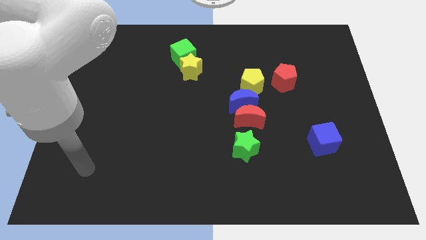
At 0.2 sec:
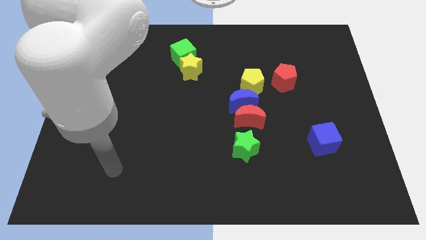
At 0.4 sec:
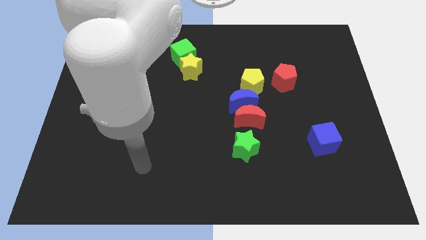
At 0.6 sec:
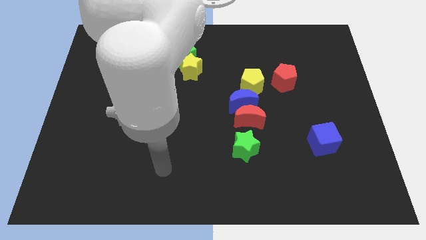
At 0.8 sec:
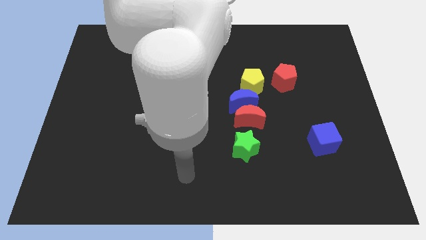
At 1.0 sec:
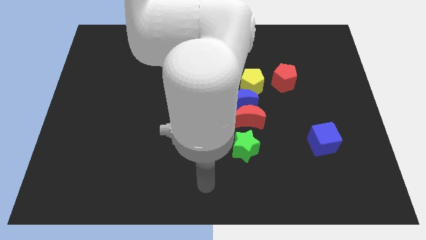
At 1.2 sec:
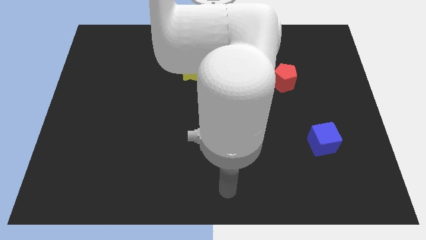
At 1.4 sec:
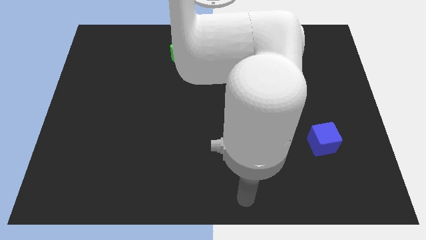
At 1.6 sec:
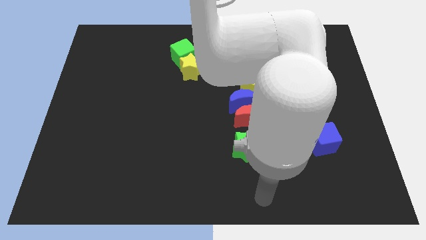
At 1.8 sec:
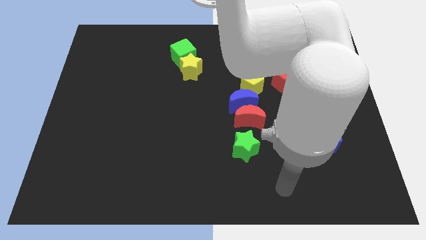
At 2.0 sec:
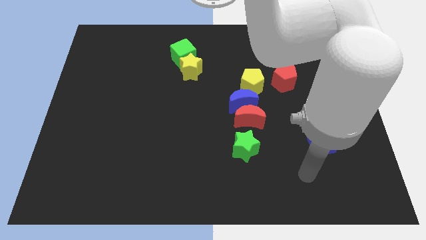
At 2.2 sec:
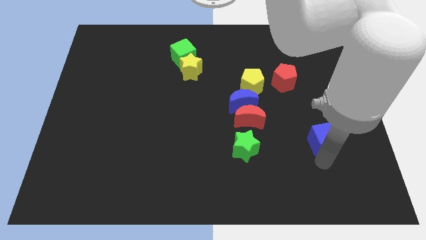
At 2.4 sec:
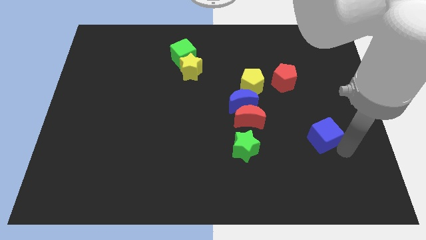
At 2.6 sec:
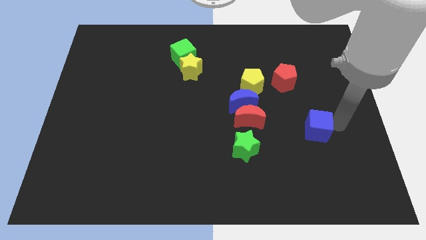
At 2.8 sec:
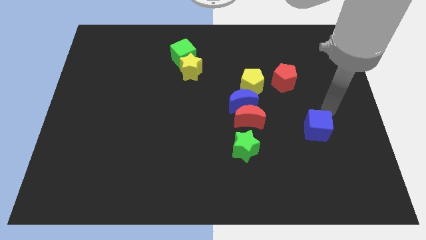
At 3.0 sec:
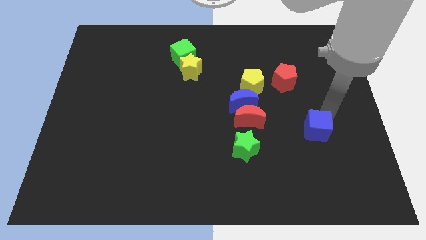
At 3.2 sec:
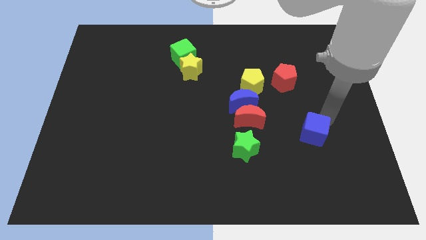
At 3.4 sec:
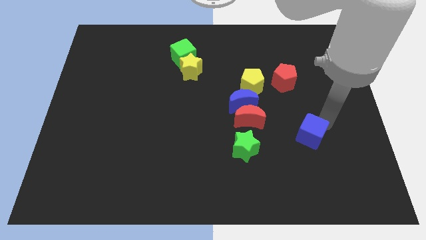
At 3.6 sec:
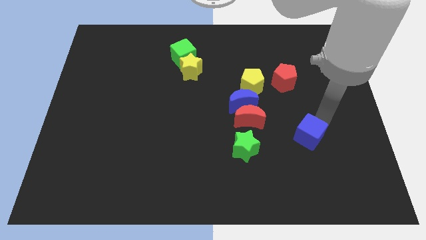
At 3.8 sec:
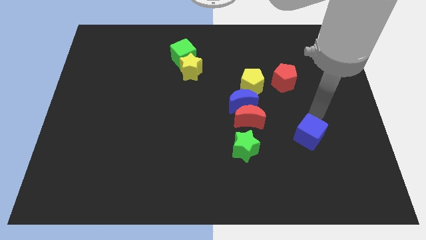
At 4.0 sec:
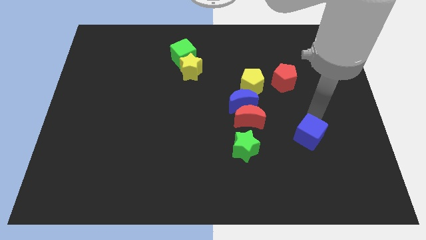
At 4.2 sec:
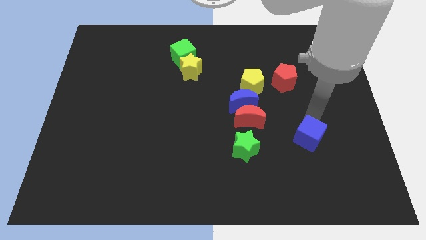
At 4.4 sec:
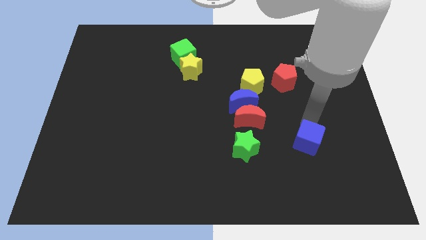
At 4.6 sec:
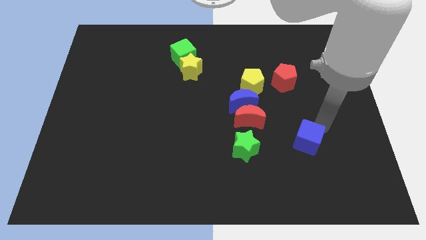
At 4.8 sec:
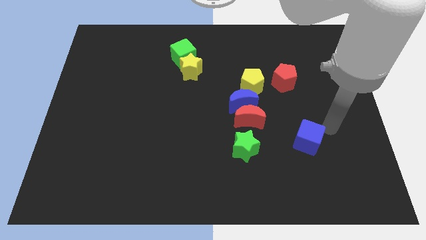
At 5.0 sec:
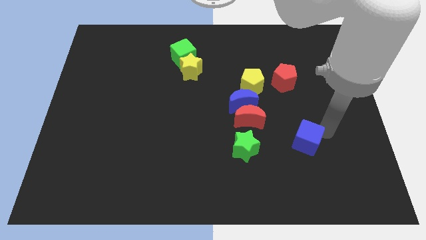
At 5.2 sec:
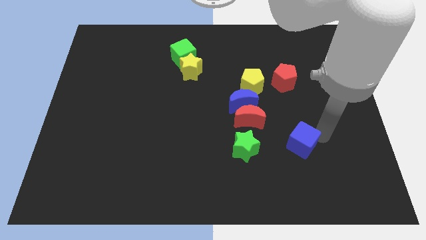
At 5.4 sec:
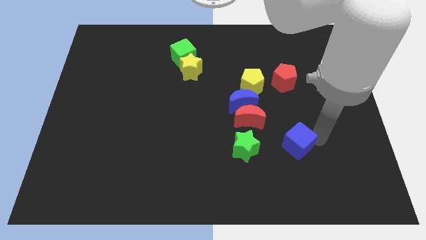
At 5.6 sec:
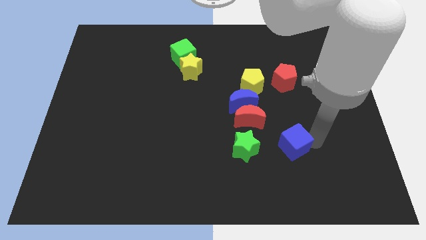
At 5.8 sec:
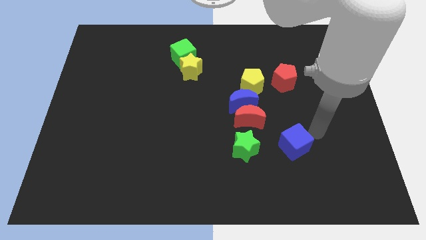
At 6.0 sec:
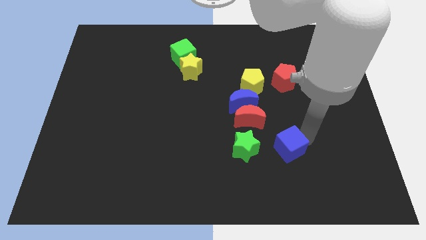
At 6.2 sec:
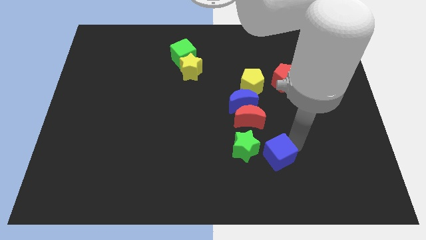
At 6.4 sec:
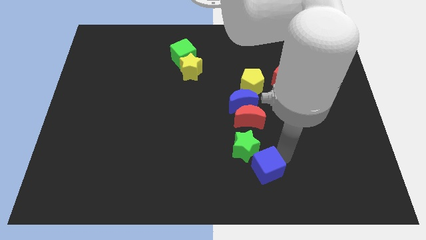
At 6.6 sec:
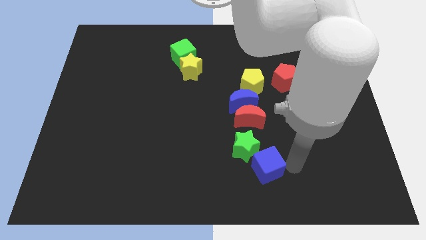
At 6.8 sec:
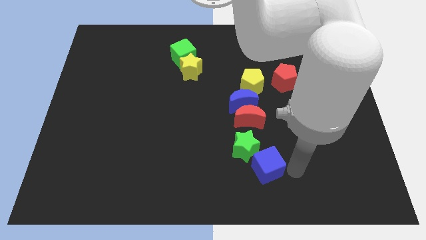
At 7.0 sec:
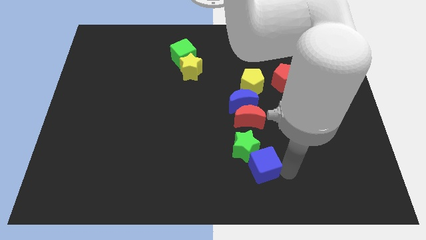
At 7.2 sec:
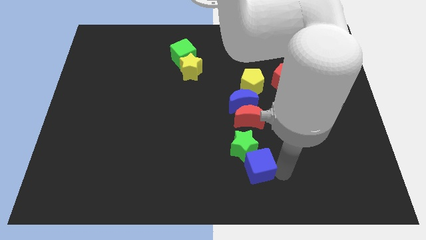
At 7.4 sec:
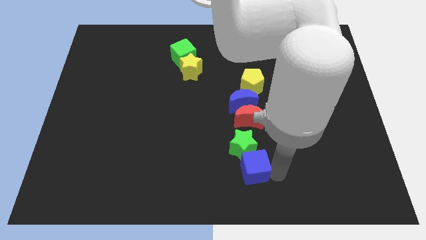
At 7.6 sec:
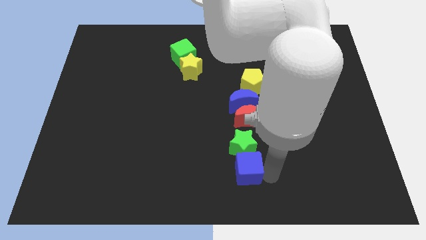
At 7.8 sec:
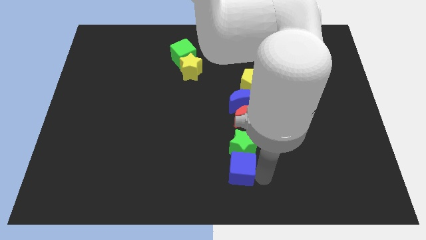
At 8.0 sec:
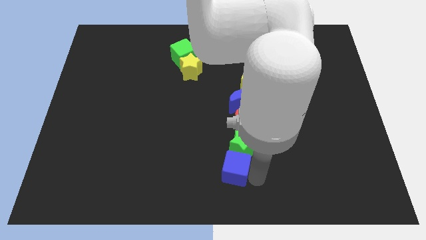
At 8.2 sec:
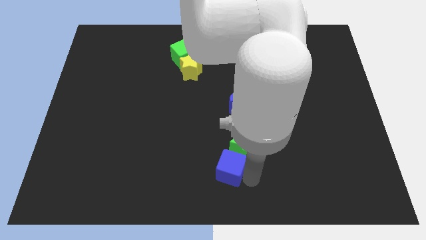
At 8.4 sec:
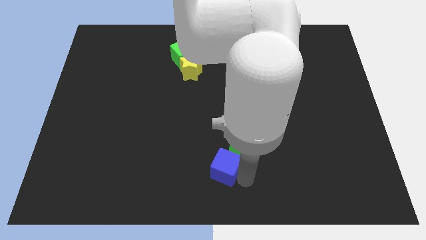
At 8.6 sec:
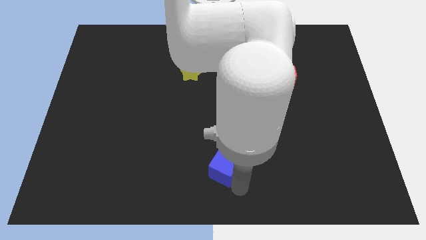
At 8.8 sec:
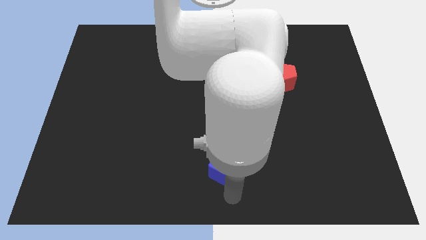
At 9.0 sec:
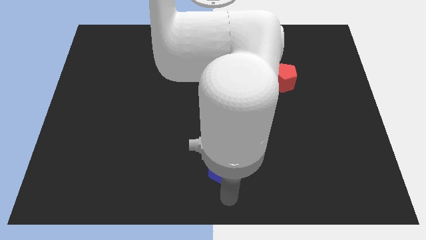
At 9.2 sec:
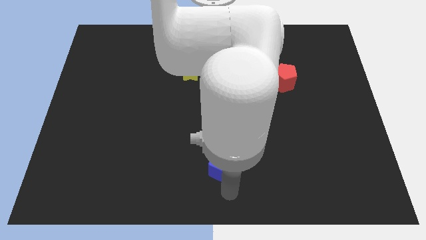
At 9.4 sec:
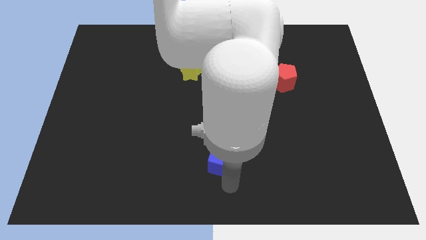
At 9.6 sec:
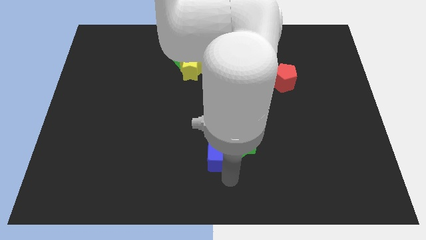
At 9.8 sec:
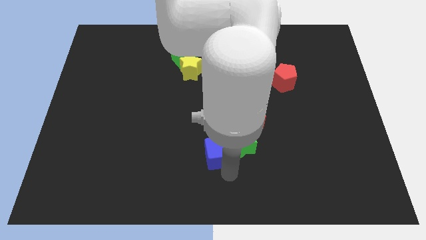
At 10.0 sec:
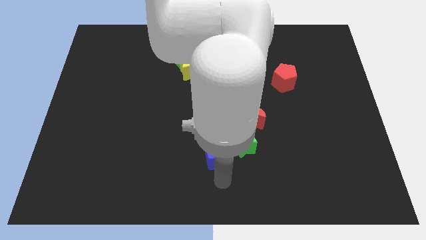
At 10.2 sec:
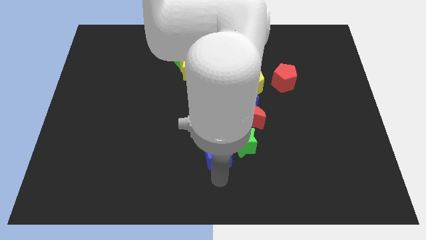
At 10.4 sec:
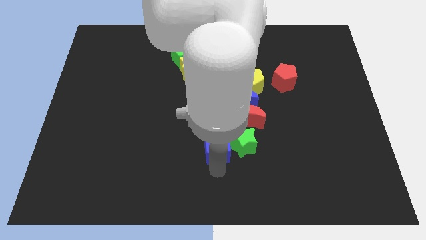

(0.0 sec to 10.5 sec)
put the blue cube to the top left side of the green star

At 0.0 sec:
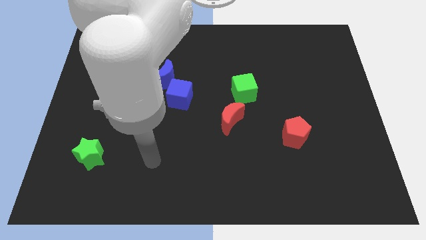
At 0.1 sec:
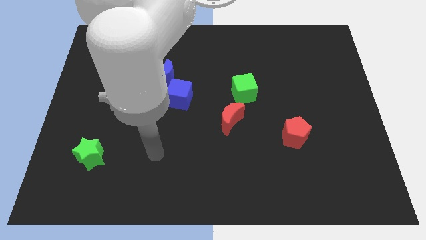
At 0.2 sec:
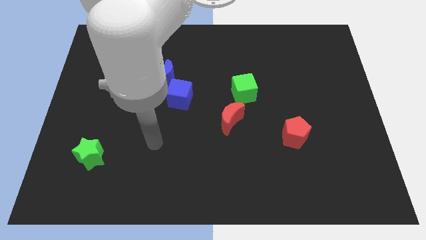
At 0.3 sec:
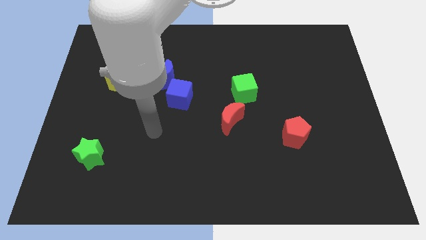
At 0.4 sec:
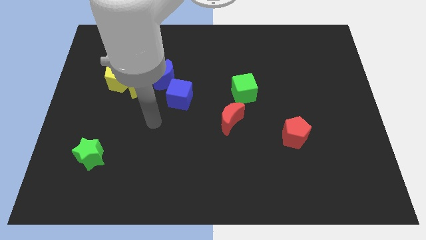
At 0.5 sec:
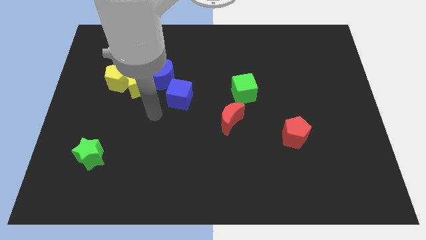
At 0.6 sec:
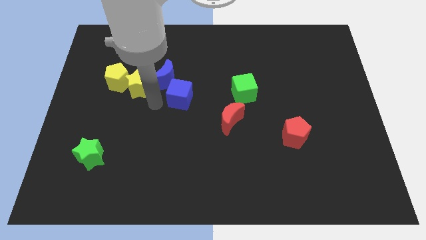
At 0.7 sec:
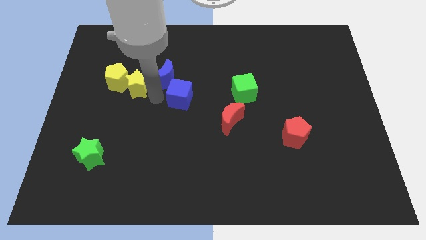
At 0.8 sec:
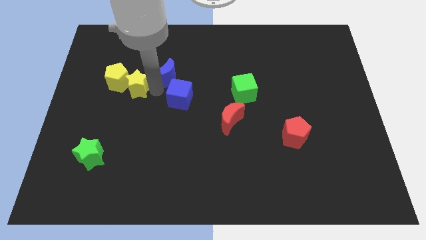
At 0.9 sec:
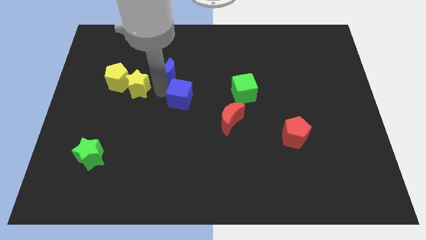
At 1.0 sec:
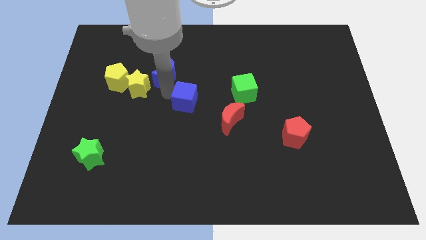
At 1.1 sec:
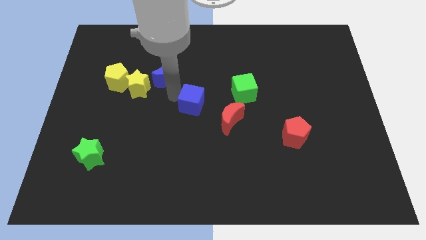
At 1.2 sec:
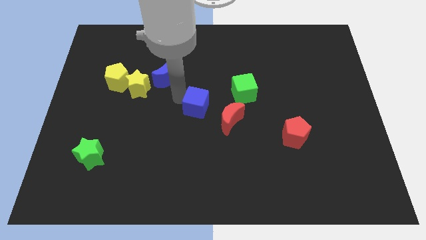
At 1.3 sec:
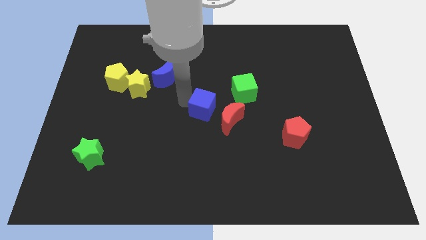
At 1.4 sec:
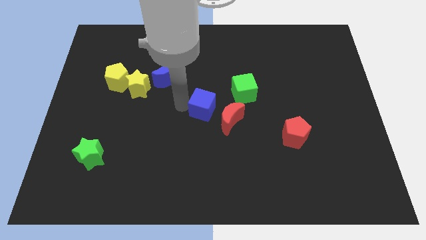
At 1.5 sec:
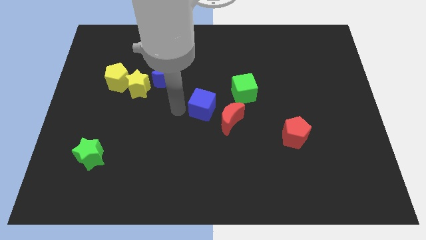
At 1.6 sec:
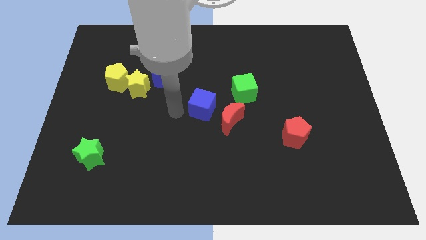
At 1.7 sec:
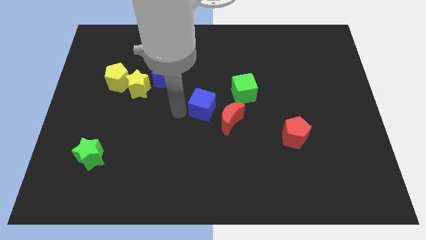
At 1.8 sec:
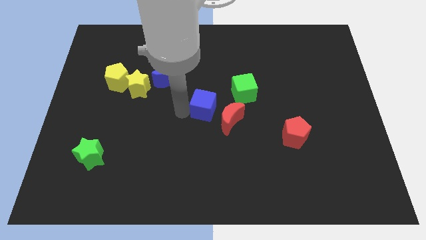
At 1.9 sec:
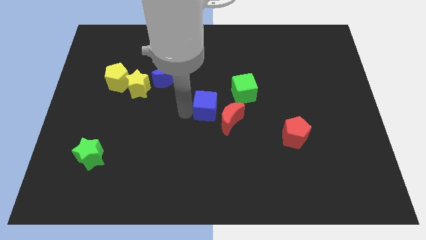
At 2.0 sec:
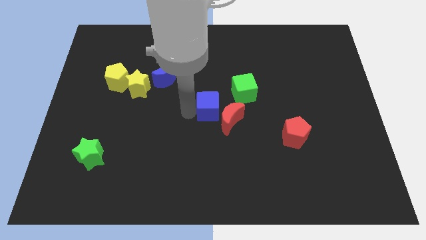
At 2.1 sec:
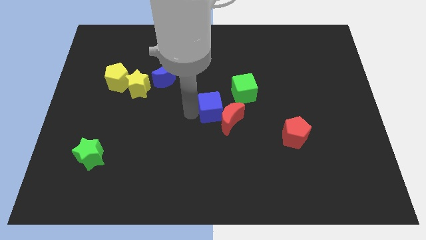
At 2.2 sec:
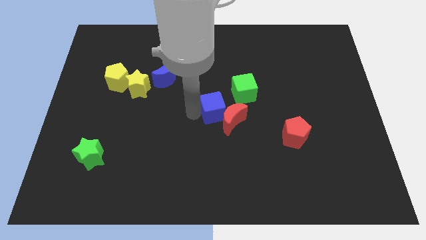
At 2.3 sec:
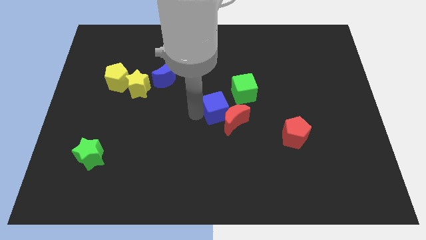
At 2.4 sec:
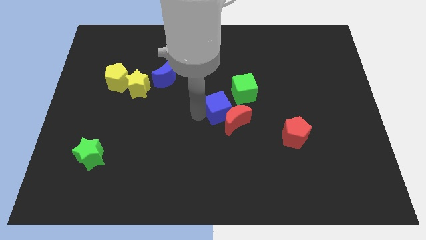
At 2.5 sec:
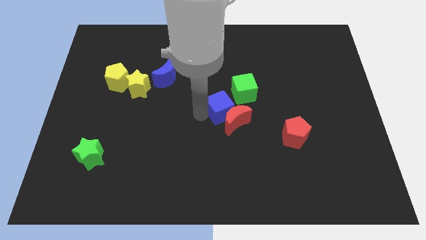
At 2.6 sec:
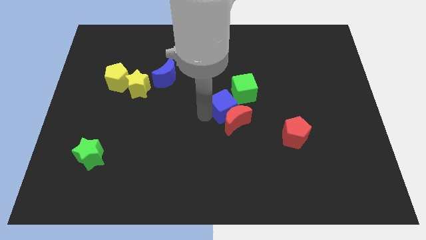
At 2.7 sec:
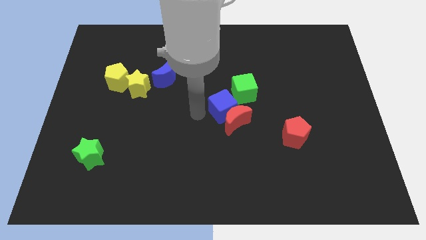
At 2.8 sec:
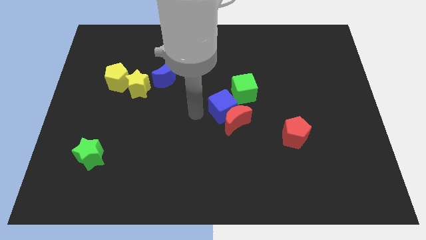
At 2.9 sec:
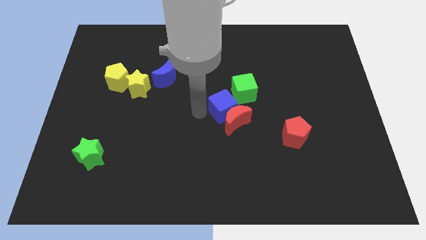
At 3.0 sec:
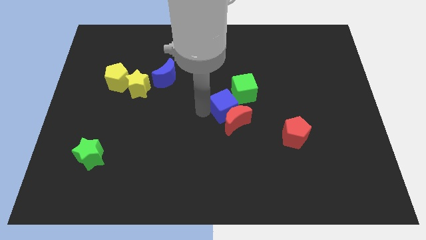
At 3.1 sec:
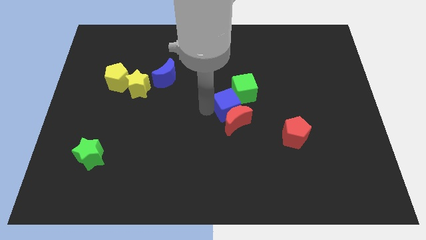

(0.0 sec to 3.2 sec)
put the blue cube to the top right side of the red moon
